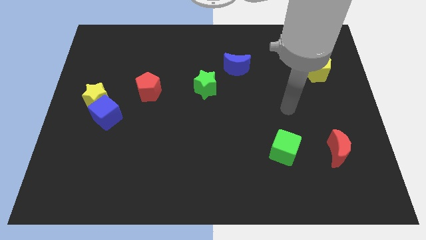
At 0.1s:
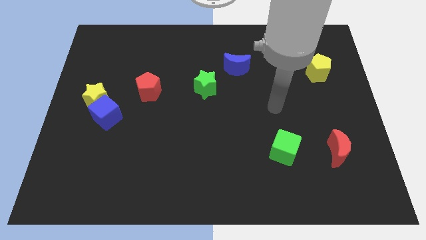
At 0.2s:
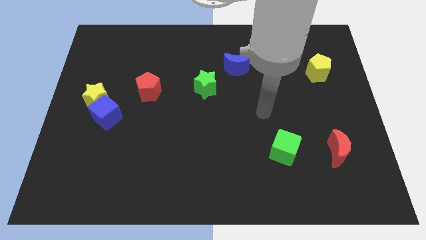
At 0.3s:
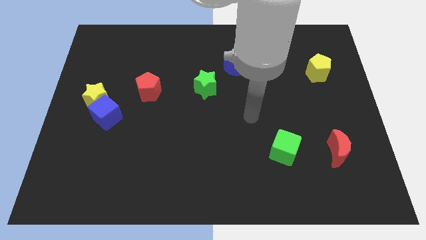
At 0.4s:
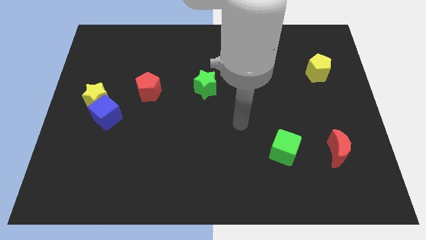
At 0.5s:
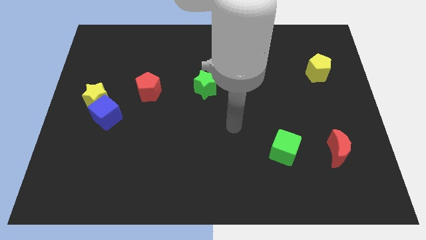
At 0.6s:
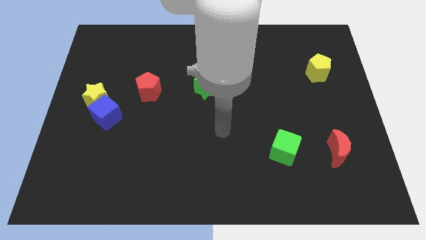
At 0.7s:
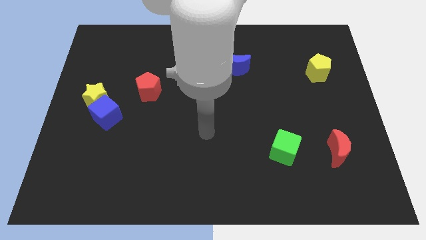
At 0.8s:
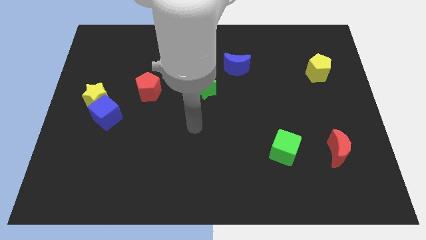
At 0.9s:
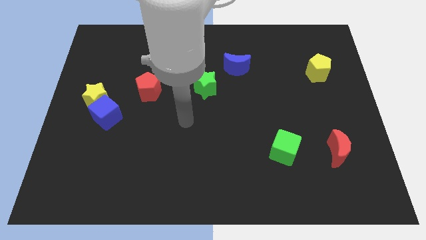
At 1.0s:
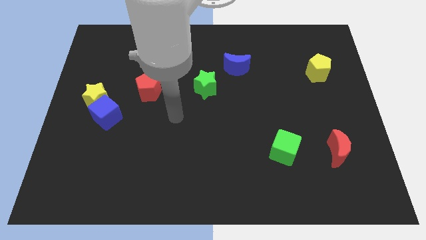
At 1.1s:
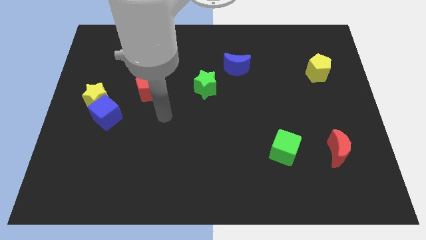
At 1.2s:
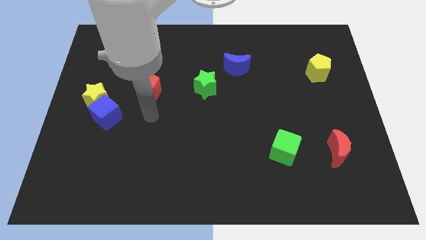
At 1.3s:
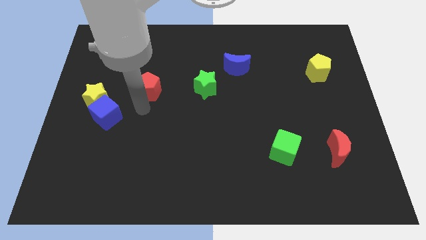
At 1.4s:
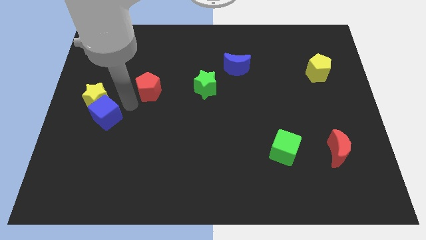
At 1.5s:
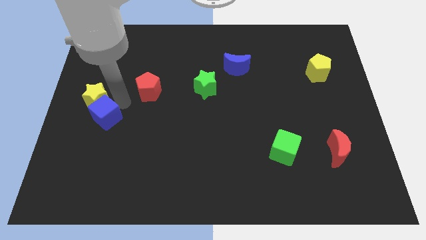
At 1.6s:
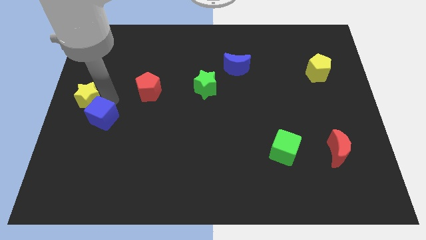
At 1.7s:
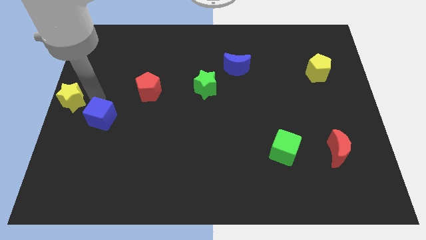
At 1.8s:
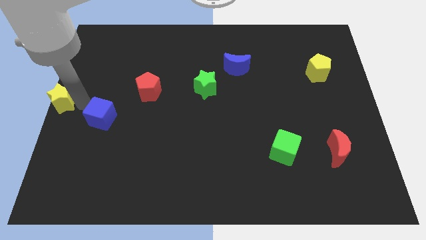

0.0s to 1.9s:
move the blue cube away from the yellow star

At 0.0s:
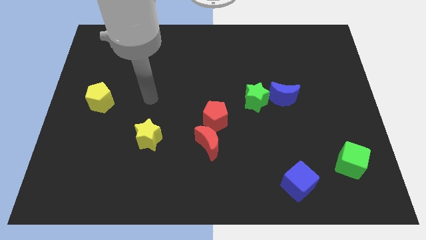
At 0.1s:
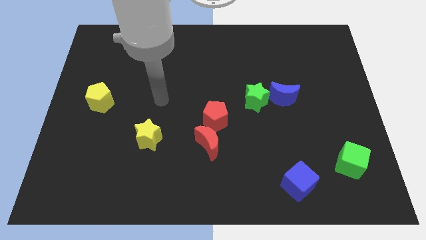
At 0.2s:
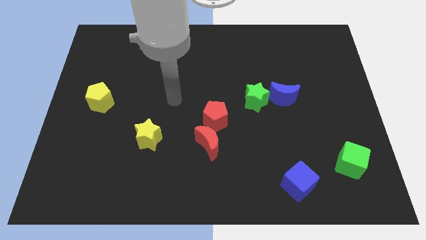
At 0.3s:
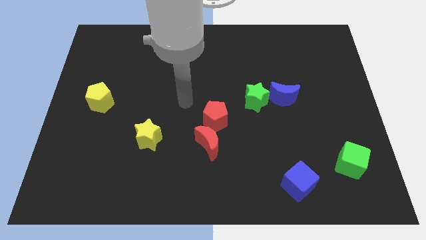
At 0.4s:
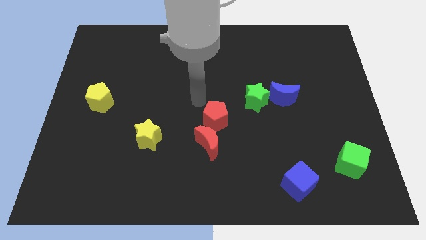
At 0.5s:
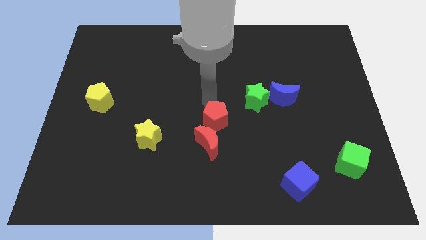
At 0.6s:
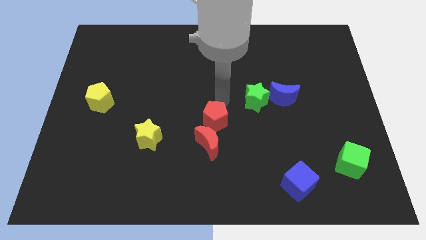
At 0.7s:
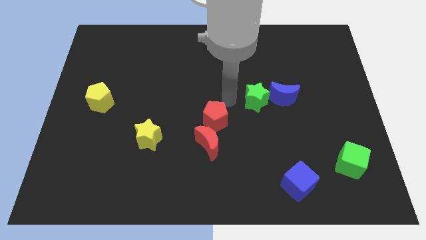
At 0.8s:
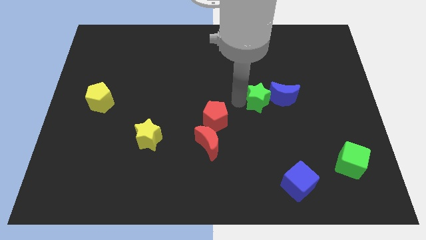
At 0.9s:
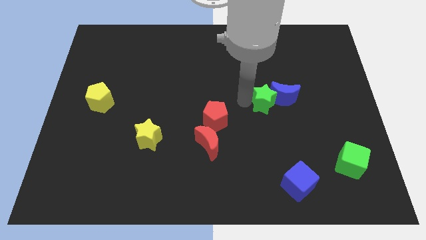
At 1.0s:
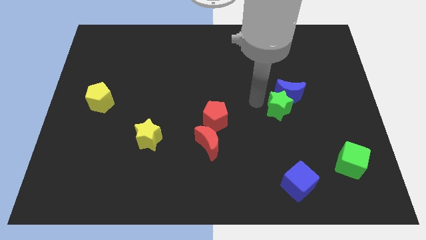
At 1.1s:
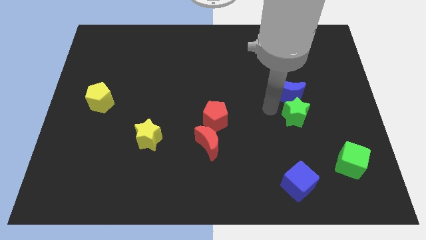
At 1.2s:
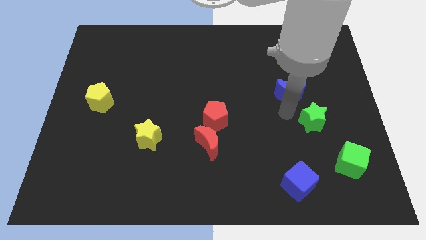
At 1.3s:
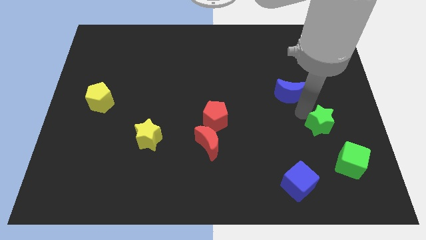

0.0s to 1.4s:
separate the blue moon from the green star

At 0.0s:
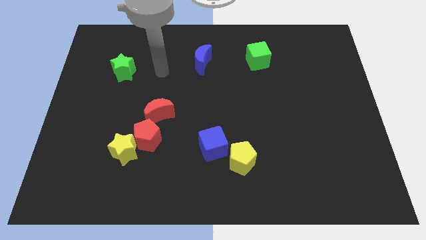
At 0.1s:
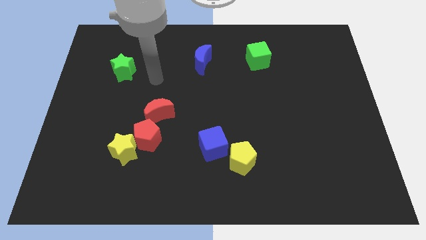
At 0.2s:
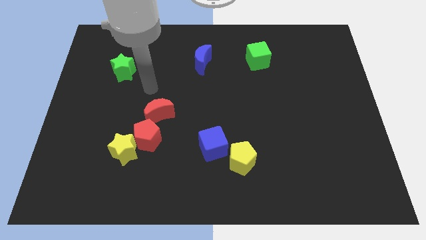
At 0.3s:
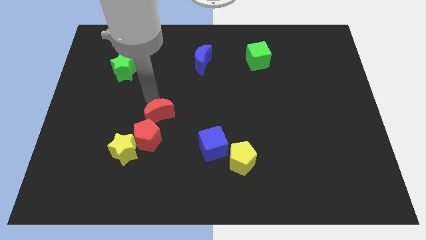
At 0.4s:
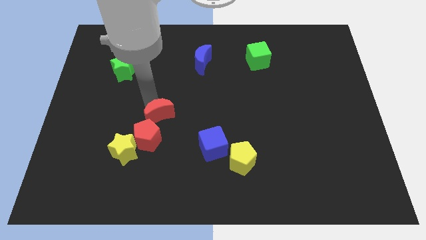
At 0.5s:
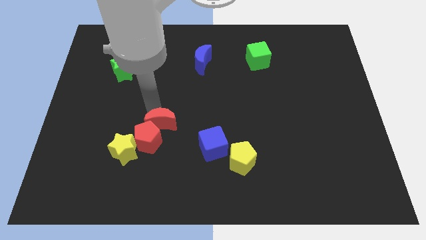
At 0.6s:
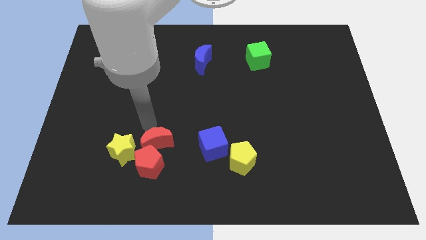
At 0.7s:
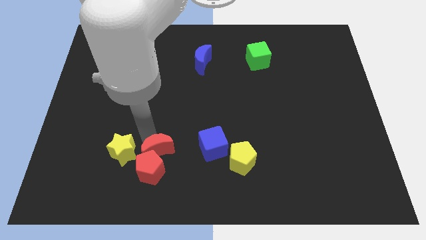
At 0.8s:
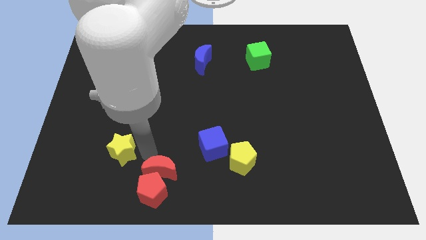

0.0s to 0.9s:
separate the yellow star from the red pentagon

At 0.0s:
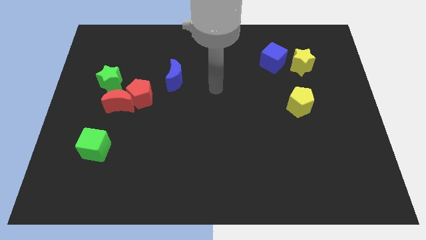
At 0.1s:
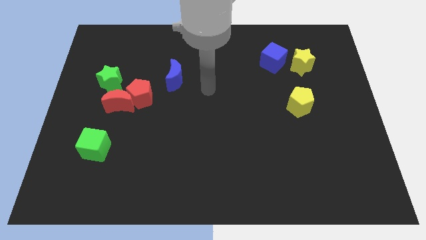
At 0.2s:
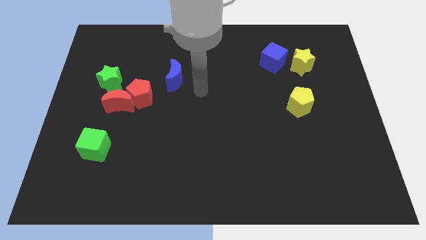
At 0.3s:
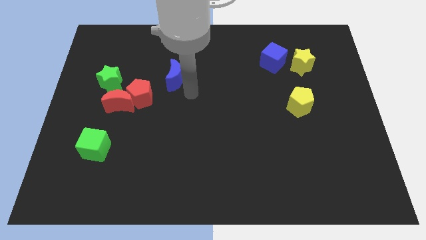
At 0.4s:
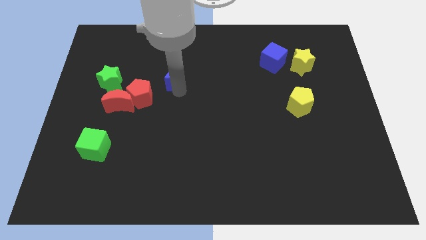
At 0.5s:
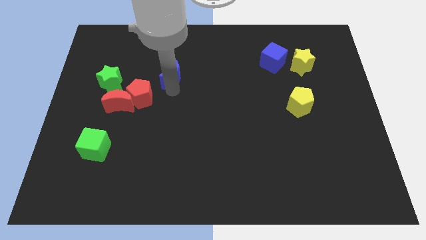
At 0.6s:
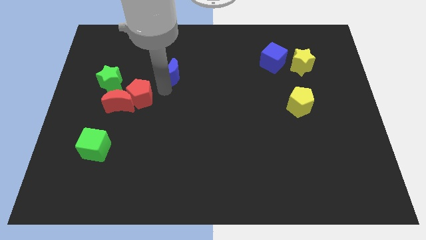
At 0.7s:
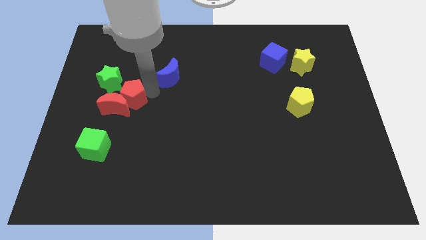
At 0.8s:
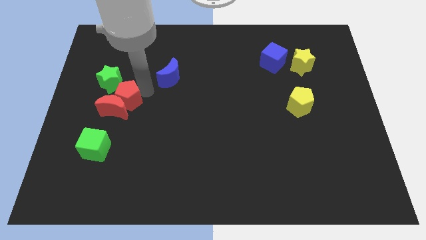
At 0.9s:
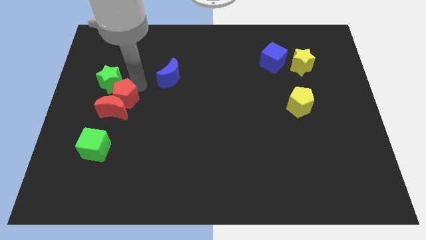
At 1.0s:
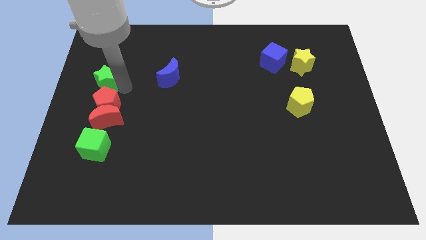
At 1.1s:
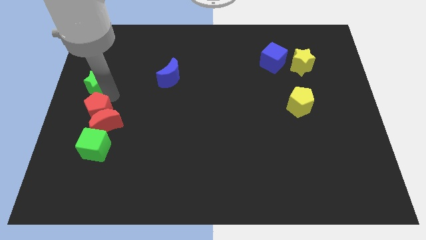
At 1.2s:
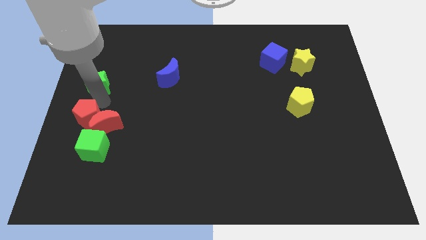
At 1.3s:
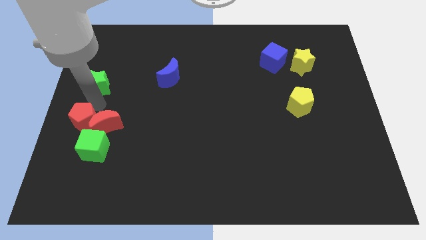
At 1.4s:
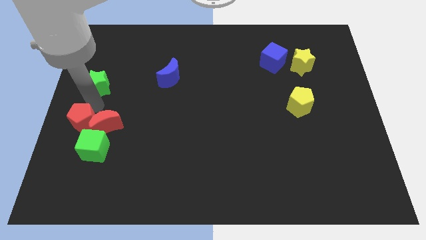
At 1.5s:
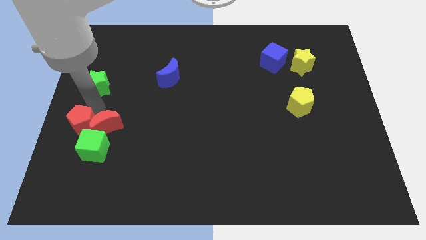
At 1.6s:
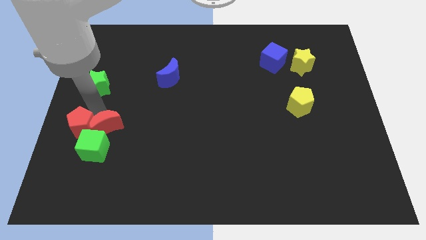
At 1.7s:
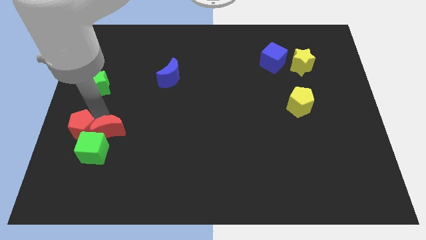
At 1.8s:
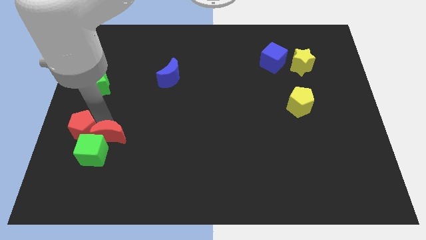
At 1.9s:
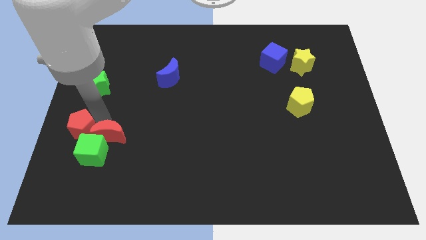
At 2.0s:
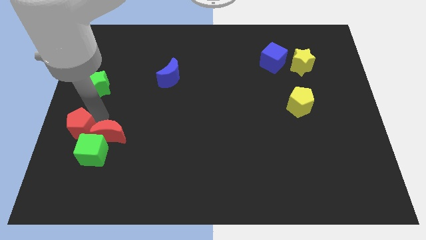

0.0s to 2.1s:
separate the red moon from the red pentagon and green star

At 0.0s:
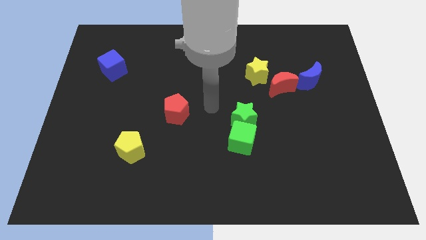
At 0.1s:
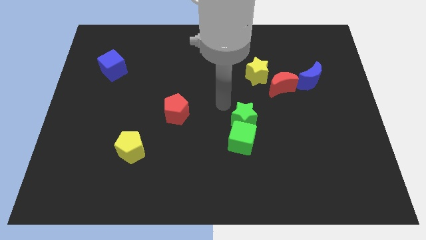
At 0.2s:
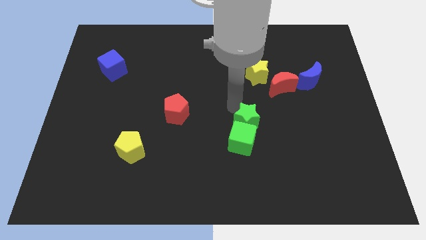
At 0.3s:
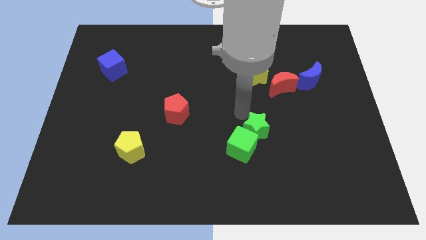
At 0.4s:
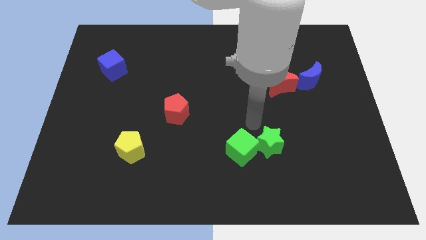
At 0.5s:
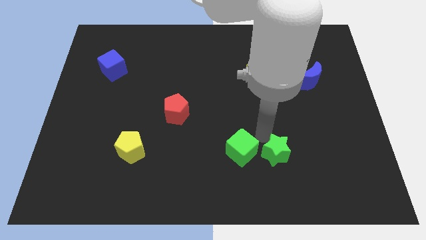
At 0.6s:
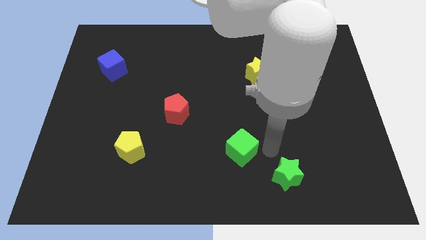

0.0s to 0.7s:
move the green cube away from the green star

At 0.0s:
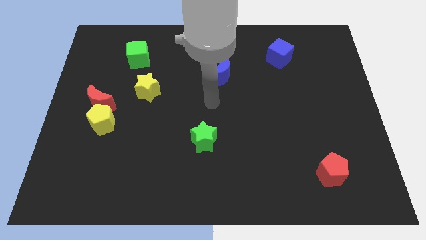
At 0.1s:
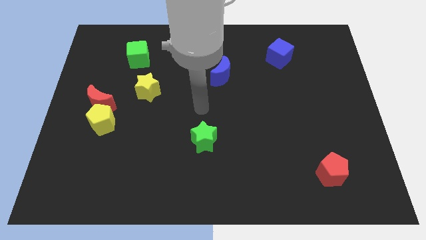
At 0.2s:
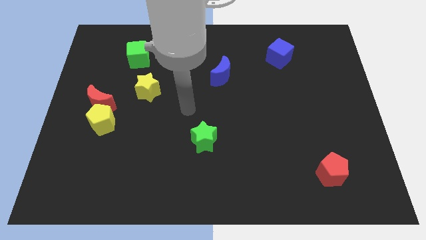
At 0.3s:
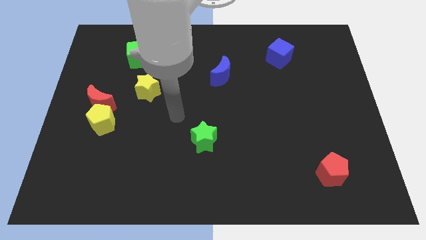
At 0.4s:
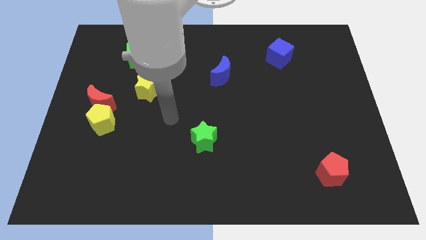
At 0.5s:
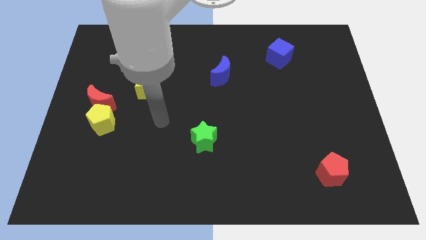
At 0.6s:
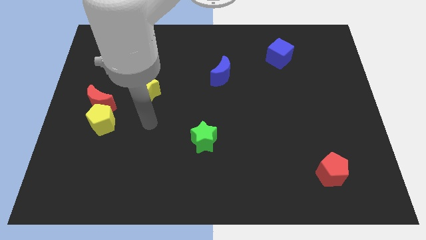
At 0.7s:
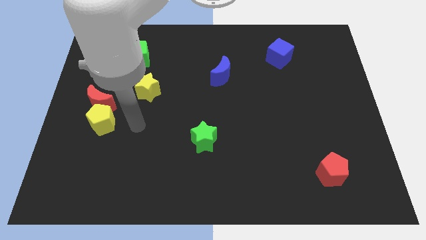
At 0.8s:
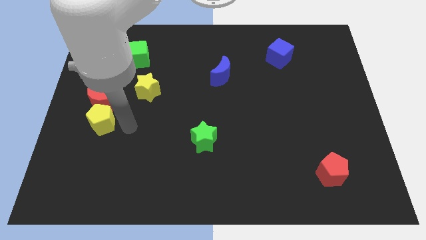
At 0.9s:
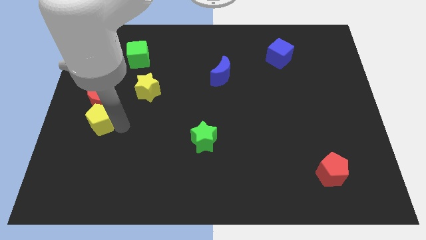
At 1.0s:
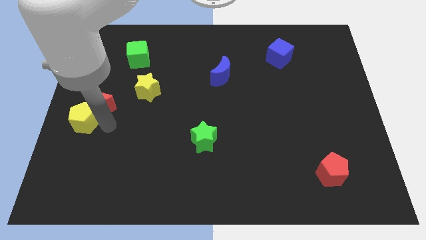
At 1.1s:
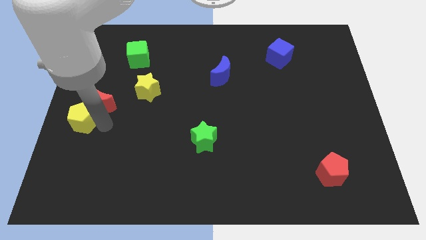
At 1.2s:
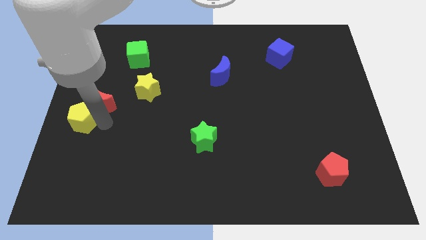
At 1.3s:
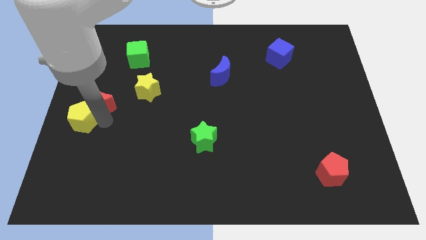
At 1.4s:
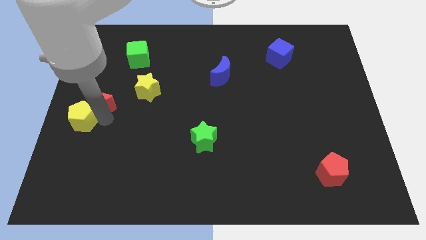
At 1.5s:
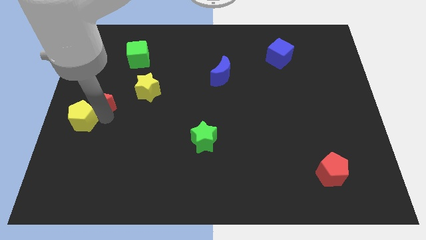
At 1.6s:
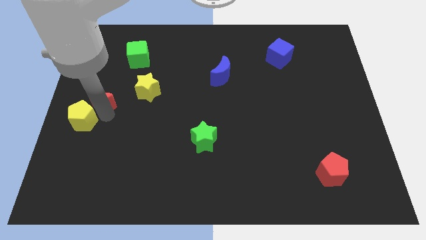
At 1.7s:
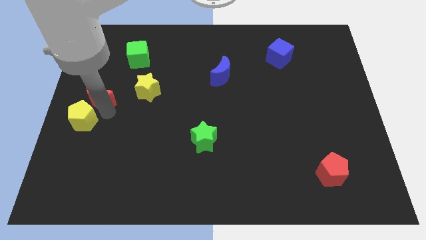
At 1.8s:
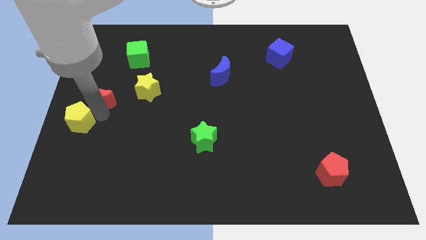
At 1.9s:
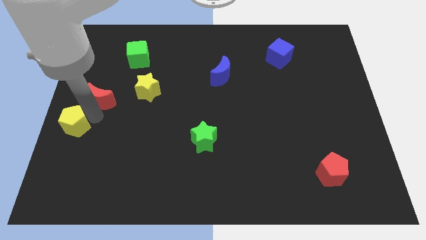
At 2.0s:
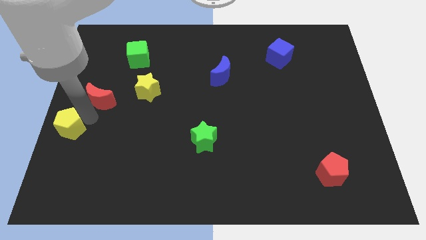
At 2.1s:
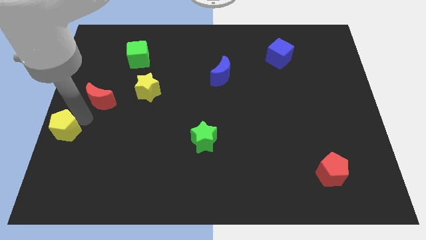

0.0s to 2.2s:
pull the red moon apart from the yellow pentagon
